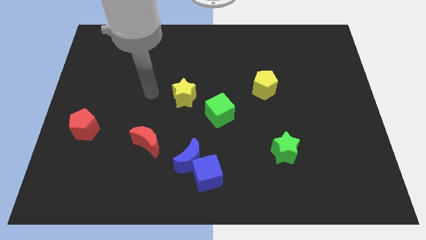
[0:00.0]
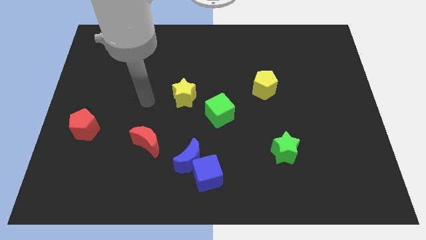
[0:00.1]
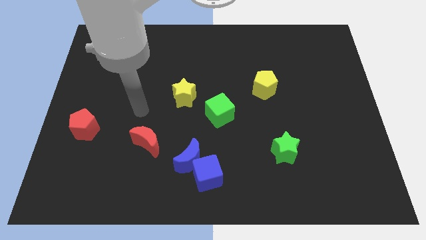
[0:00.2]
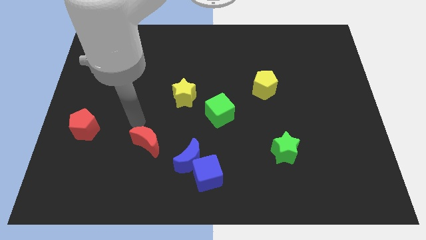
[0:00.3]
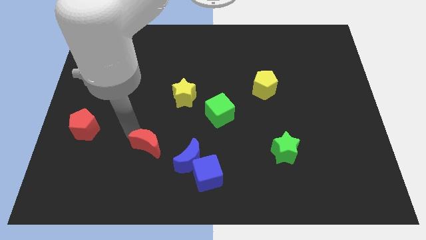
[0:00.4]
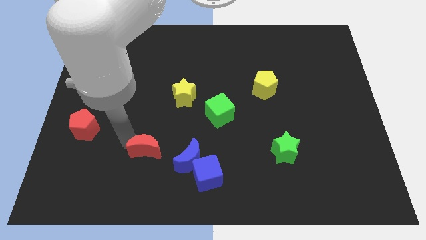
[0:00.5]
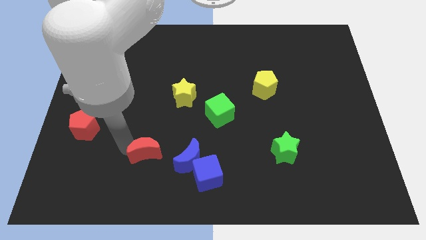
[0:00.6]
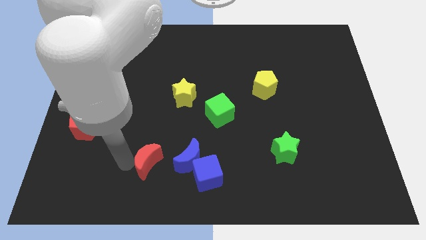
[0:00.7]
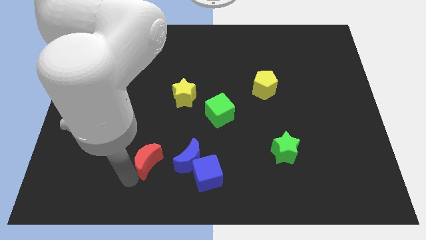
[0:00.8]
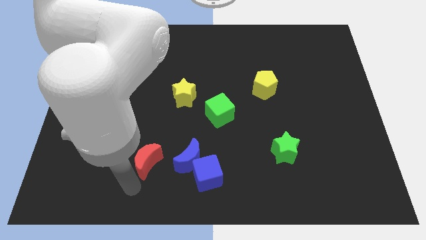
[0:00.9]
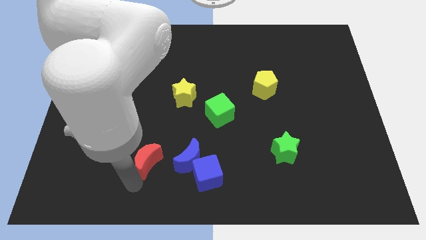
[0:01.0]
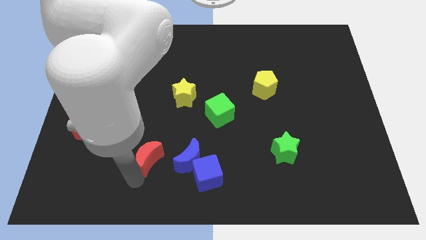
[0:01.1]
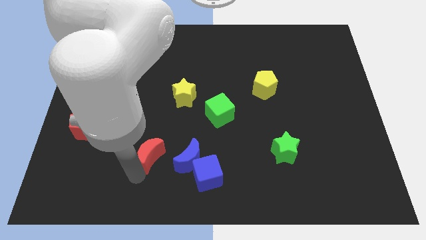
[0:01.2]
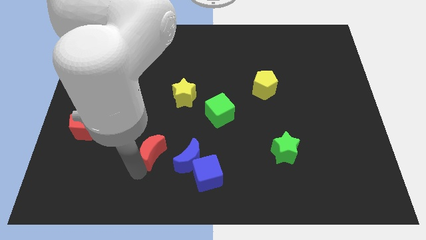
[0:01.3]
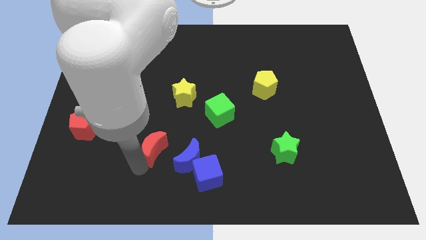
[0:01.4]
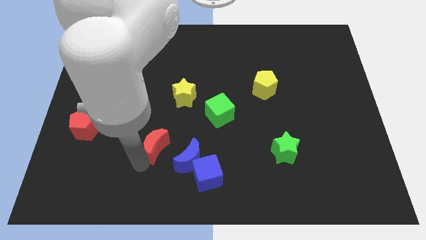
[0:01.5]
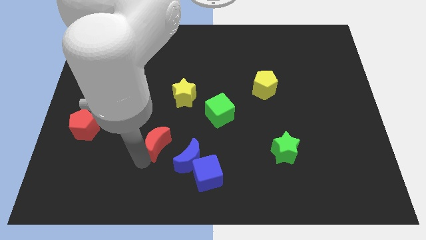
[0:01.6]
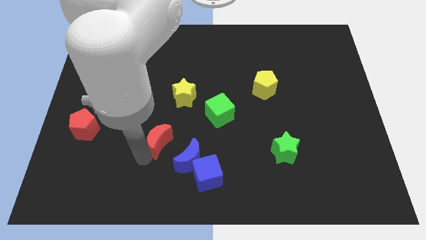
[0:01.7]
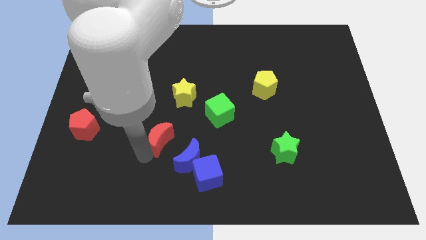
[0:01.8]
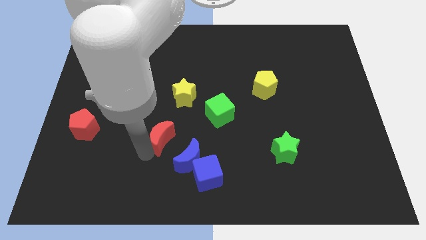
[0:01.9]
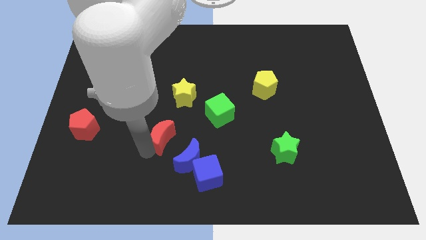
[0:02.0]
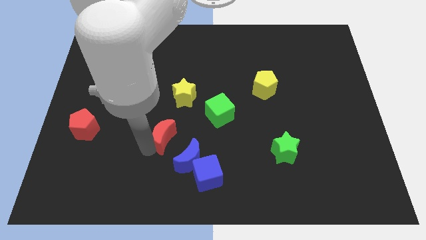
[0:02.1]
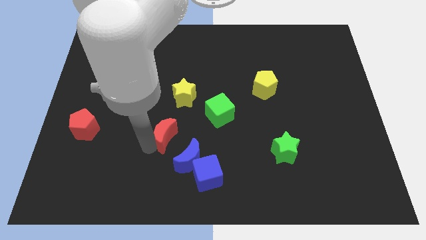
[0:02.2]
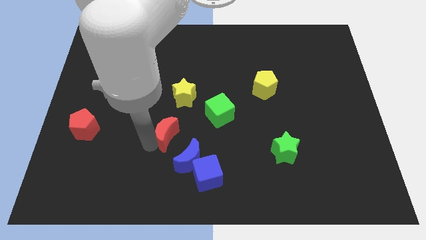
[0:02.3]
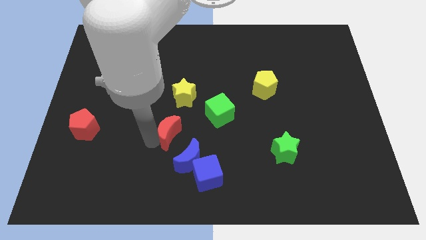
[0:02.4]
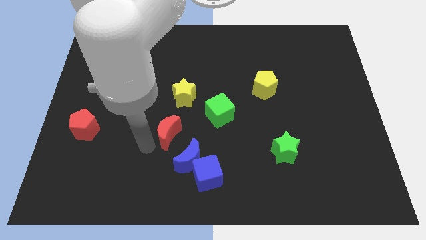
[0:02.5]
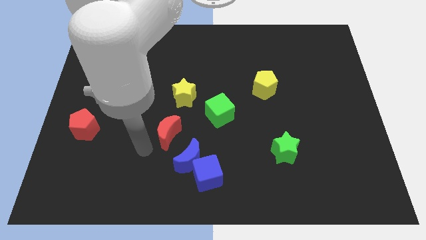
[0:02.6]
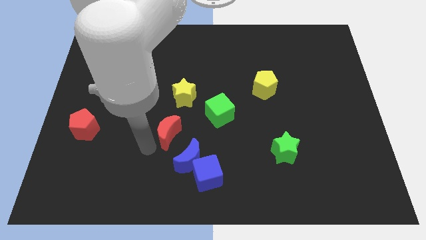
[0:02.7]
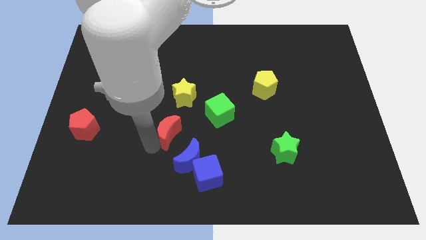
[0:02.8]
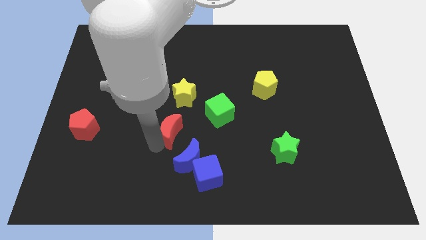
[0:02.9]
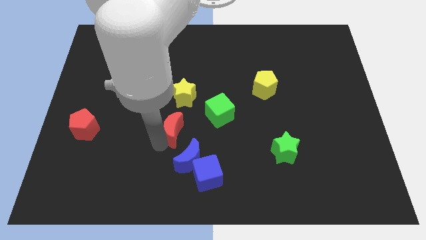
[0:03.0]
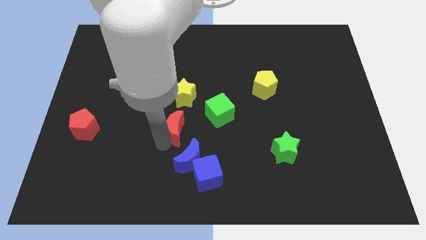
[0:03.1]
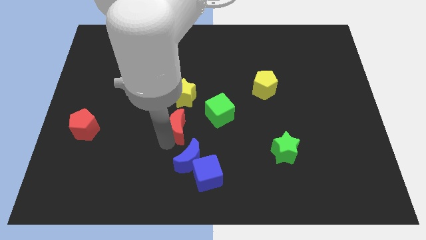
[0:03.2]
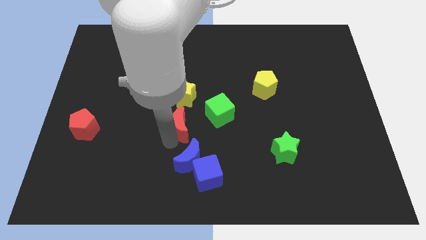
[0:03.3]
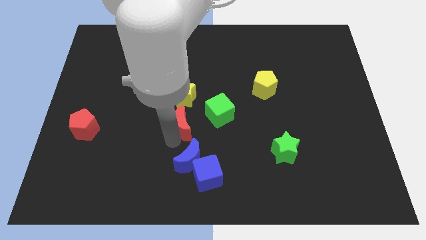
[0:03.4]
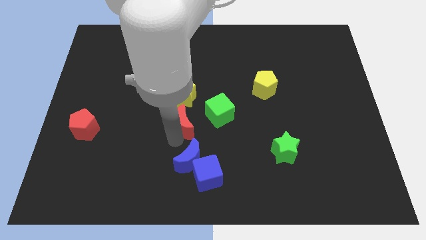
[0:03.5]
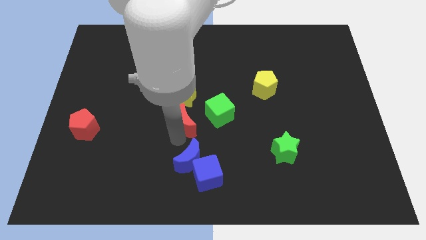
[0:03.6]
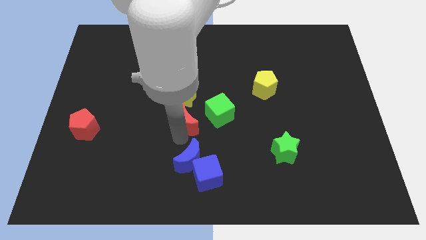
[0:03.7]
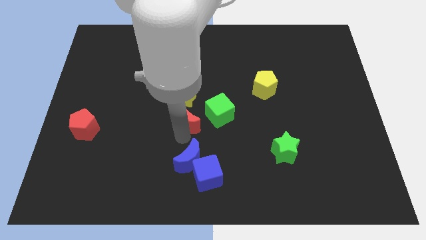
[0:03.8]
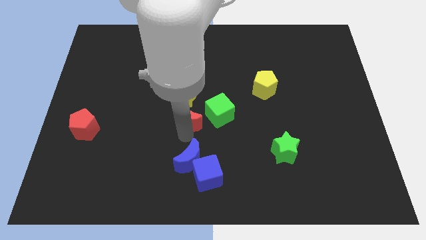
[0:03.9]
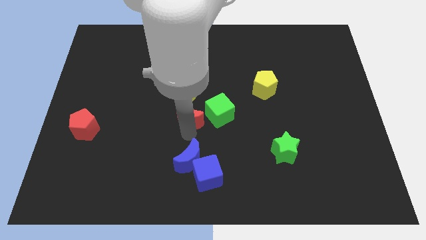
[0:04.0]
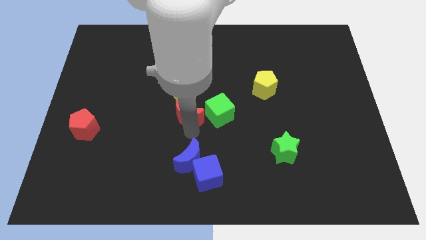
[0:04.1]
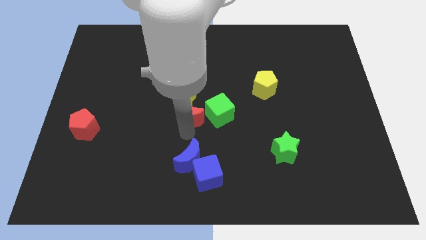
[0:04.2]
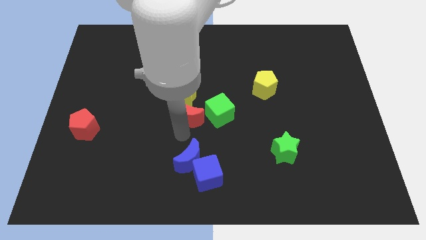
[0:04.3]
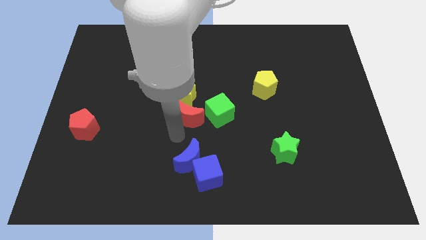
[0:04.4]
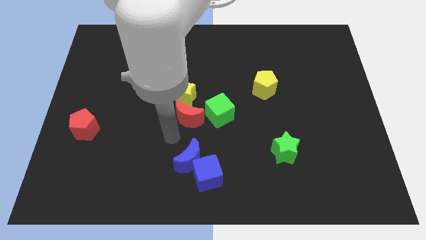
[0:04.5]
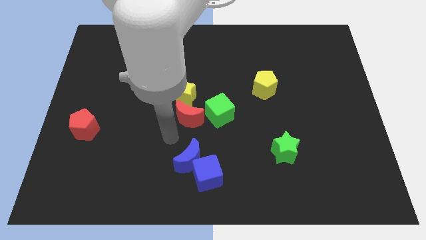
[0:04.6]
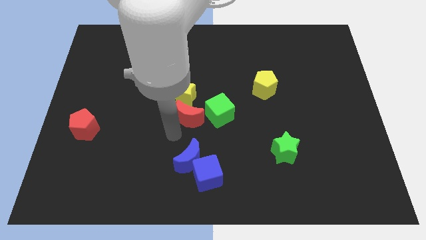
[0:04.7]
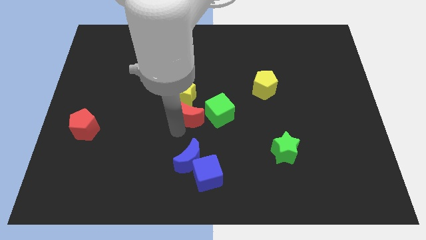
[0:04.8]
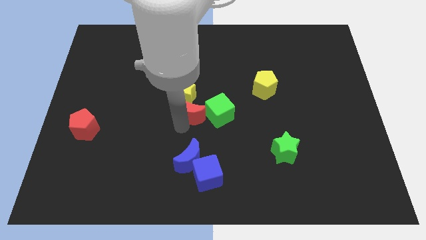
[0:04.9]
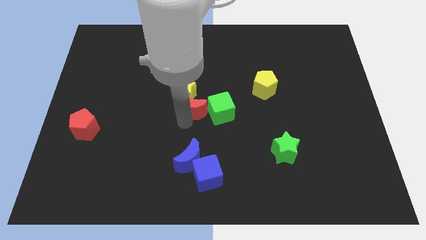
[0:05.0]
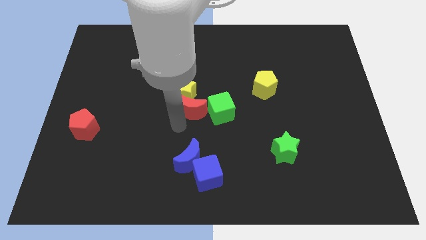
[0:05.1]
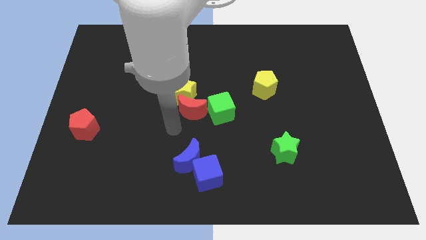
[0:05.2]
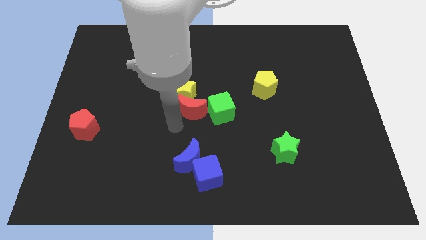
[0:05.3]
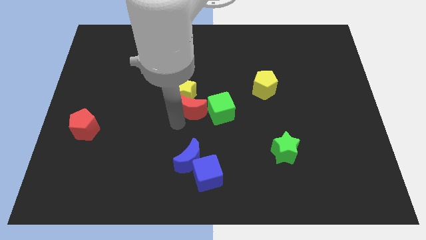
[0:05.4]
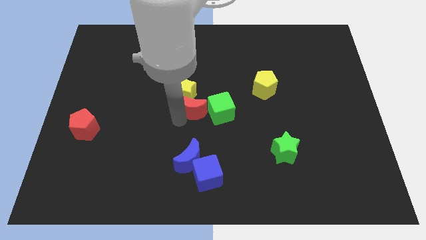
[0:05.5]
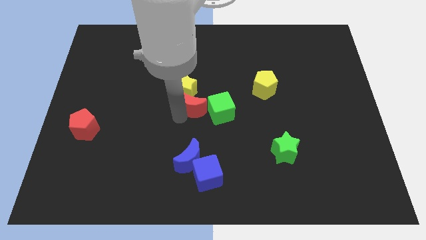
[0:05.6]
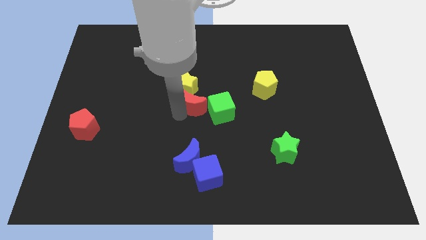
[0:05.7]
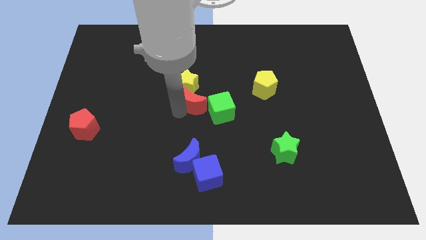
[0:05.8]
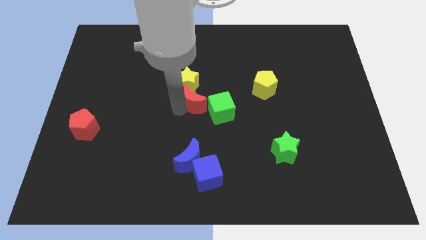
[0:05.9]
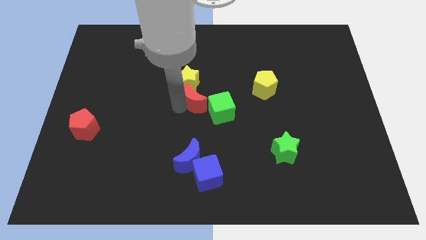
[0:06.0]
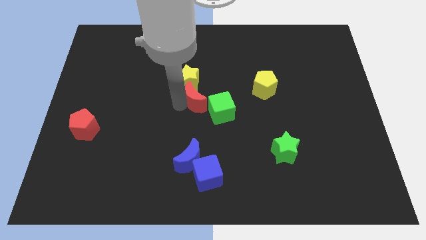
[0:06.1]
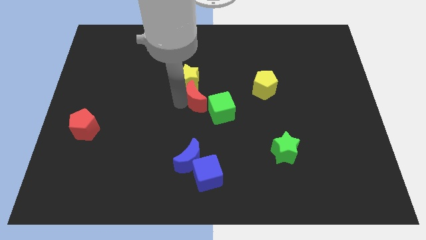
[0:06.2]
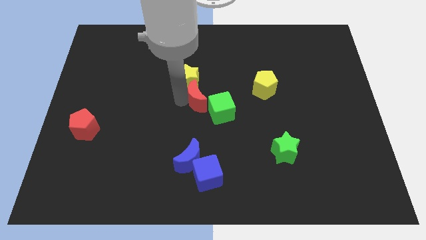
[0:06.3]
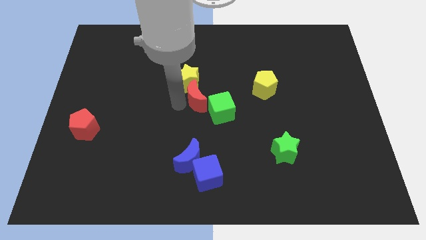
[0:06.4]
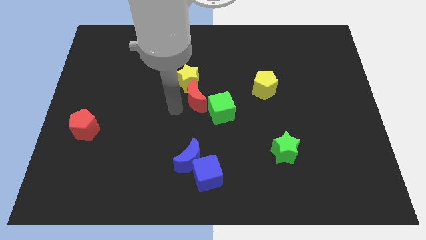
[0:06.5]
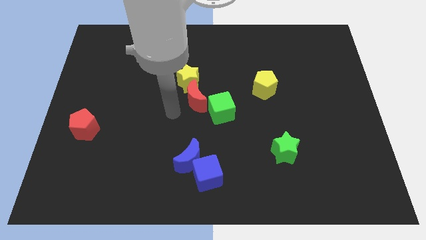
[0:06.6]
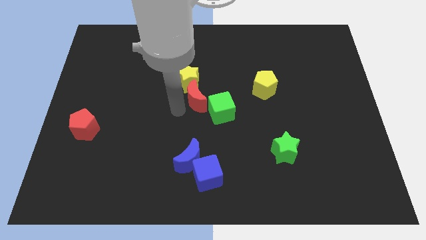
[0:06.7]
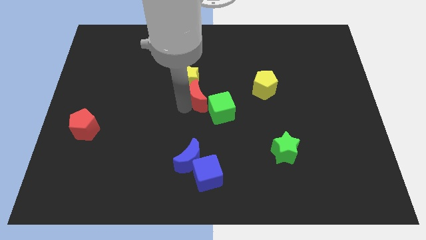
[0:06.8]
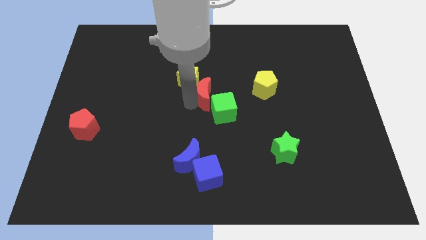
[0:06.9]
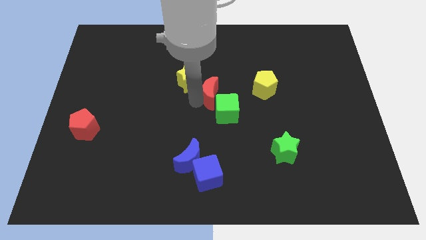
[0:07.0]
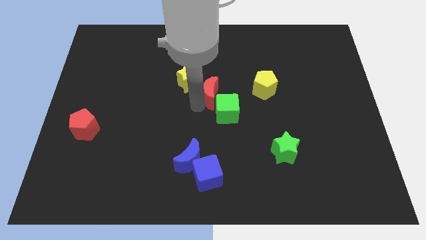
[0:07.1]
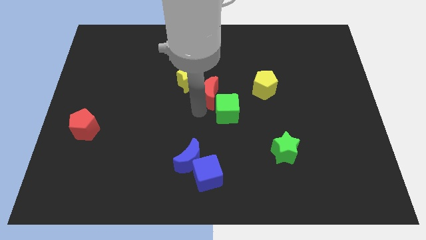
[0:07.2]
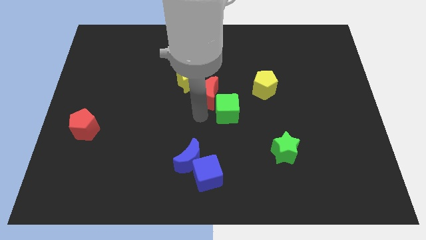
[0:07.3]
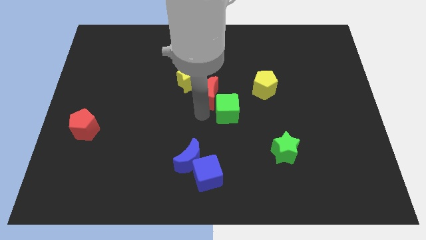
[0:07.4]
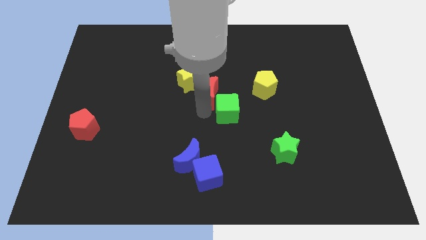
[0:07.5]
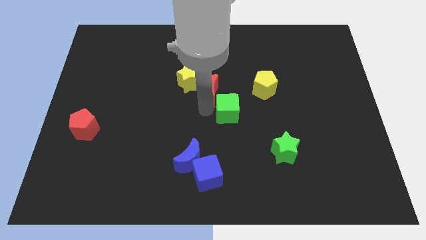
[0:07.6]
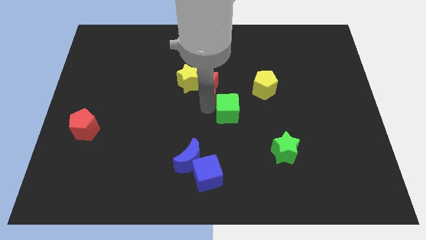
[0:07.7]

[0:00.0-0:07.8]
slide the red moon diagonally upwards and to the right

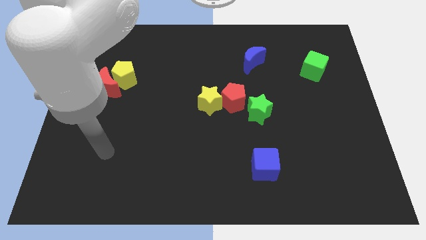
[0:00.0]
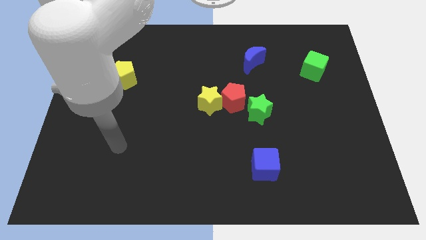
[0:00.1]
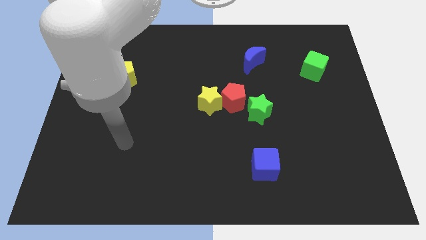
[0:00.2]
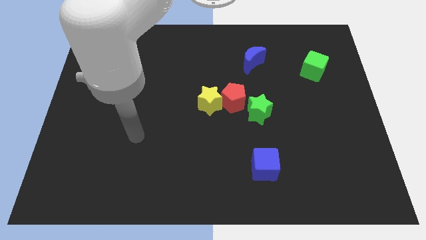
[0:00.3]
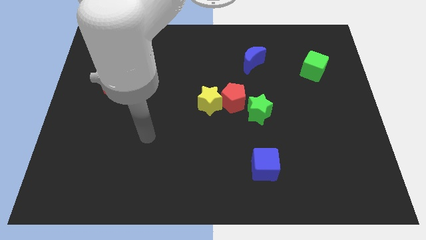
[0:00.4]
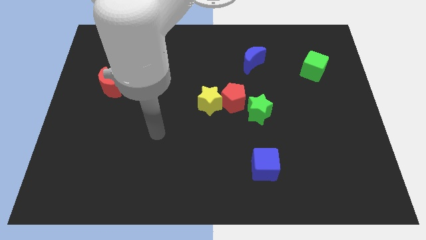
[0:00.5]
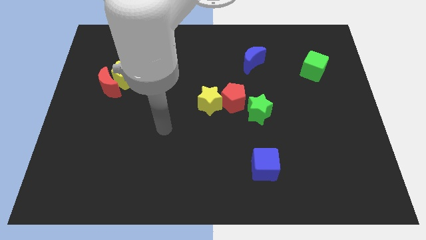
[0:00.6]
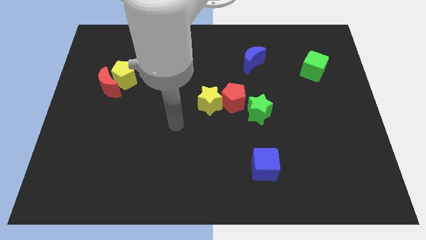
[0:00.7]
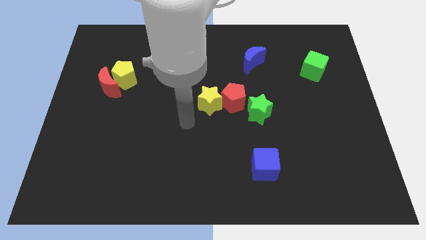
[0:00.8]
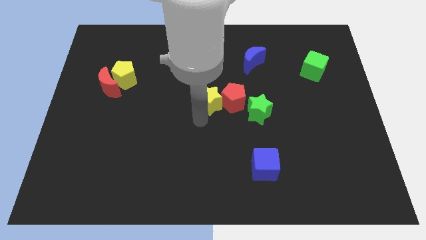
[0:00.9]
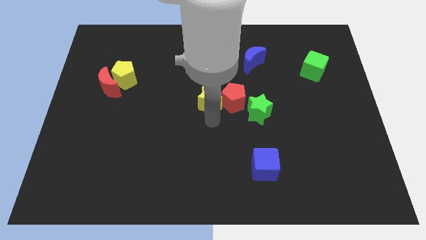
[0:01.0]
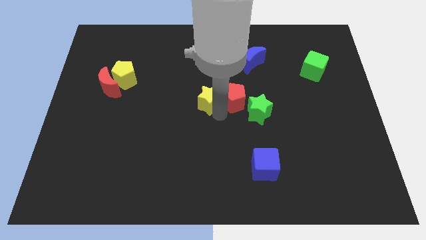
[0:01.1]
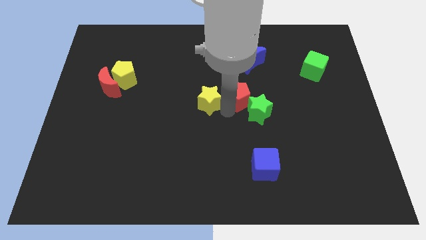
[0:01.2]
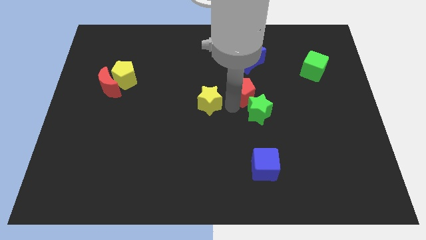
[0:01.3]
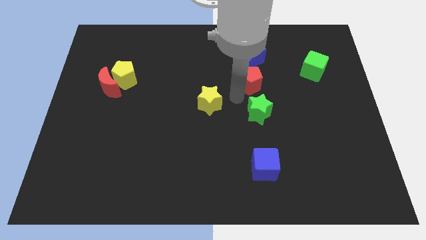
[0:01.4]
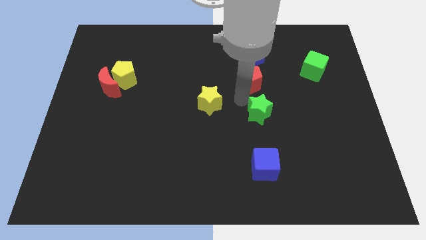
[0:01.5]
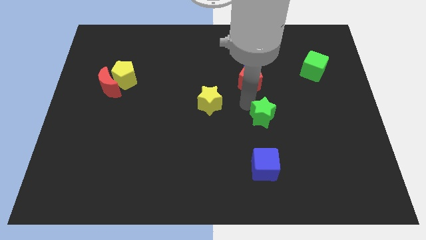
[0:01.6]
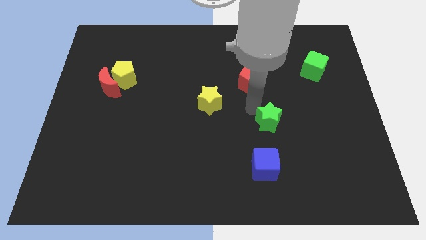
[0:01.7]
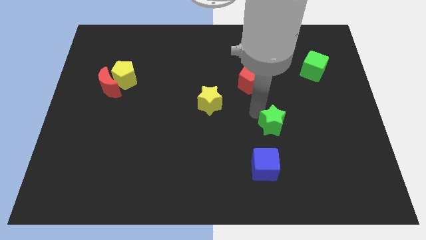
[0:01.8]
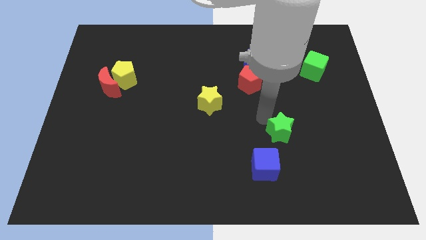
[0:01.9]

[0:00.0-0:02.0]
slightly move the green star diagonally down and to the right
